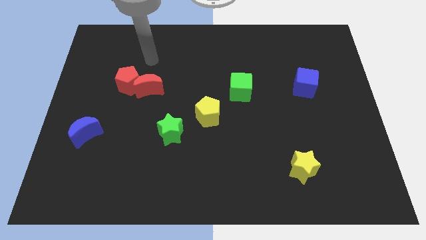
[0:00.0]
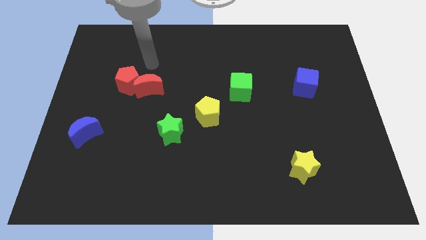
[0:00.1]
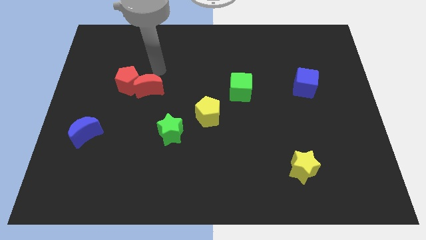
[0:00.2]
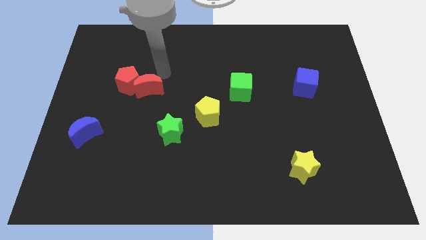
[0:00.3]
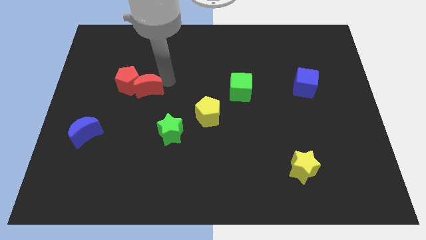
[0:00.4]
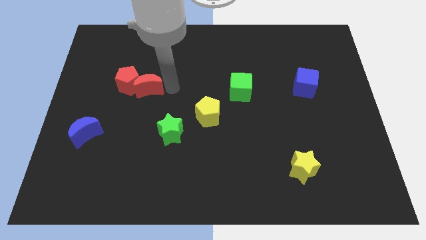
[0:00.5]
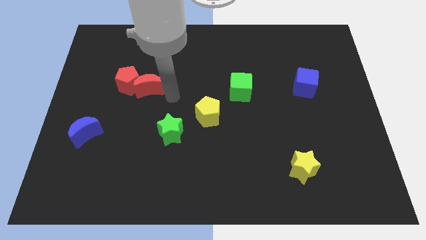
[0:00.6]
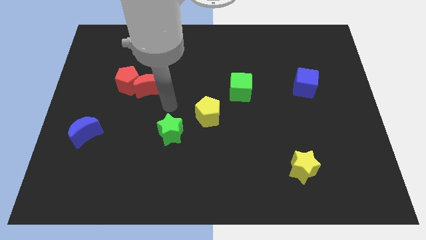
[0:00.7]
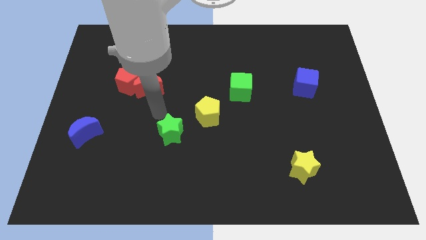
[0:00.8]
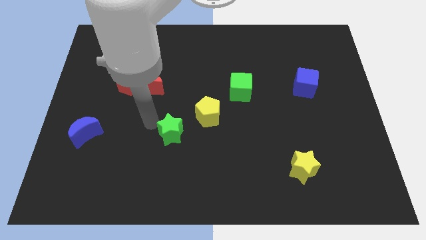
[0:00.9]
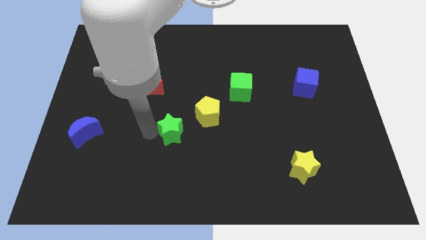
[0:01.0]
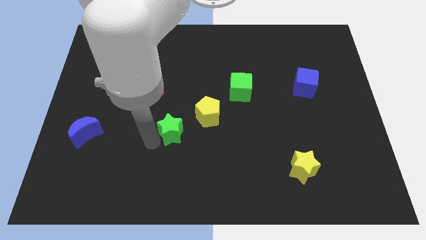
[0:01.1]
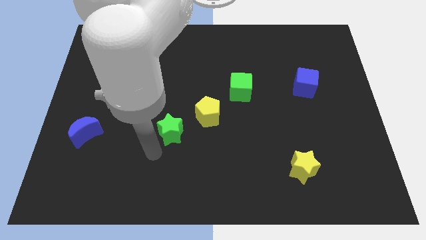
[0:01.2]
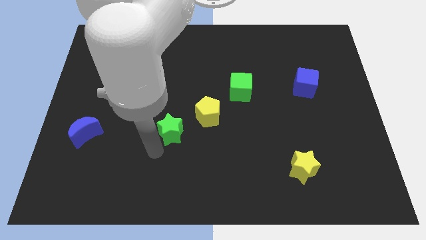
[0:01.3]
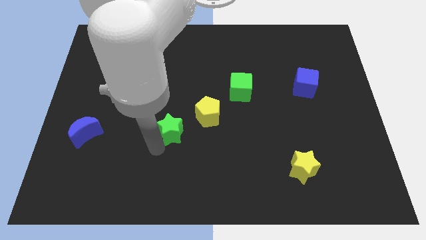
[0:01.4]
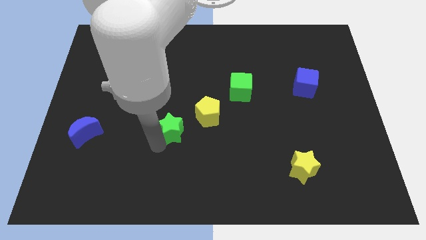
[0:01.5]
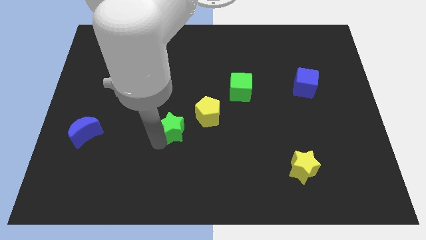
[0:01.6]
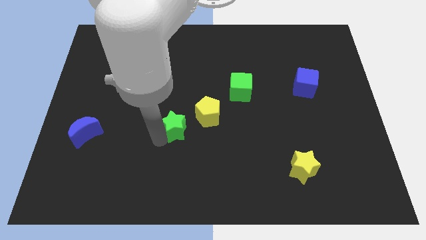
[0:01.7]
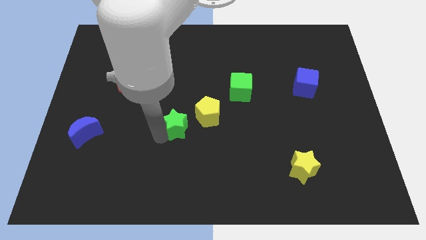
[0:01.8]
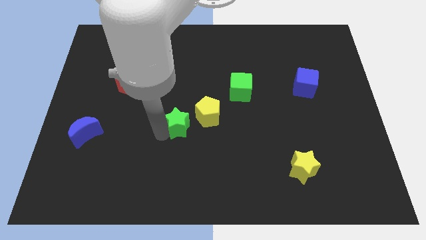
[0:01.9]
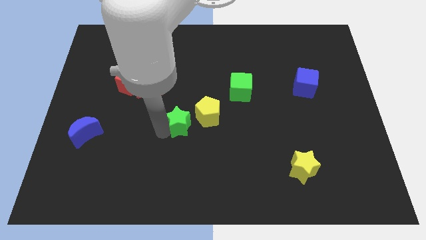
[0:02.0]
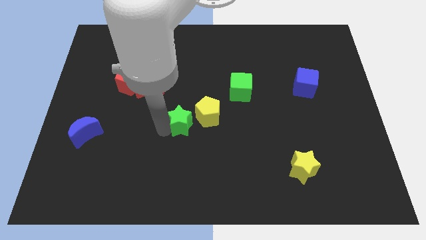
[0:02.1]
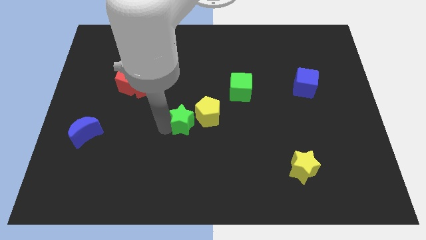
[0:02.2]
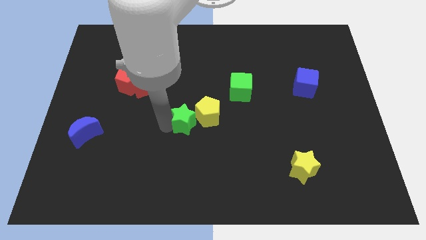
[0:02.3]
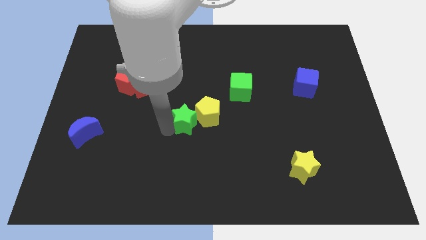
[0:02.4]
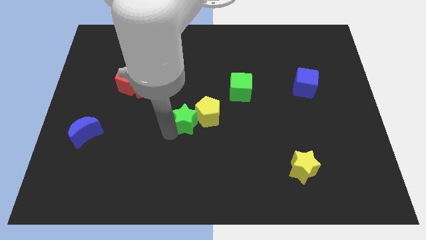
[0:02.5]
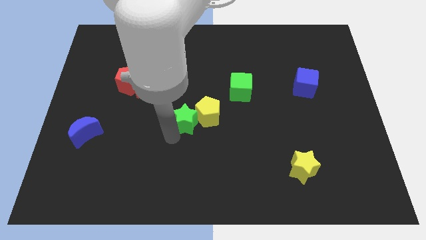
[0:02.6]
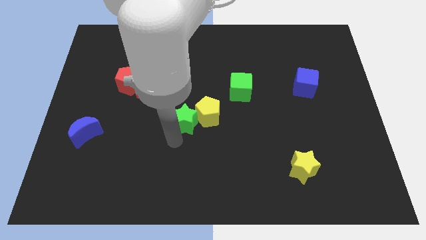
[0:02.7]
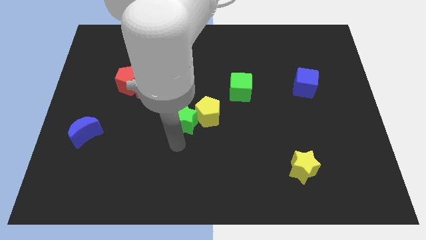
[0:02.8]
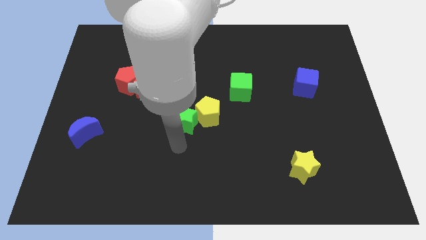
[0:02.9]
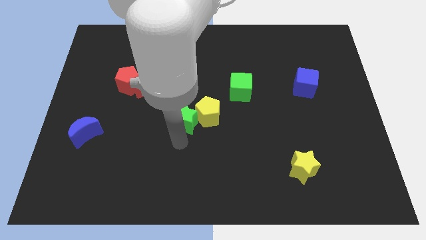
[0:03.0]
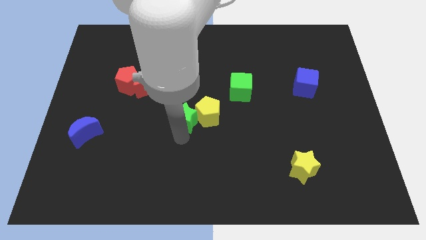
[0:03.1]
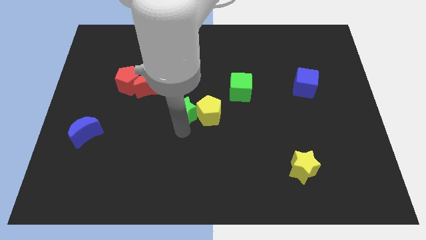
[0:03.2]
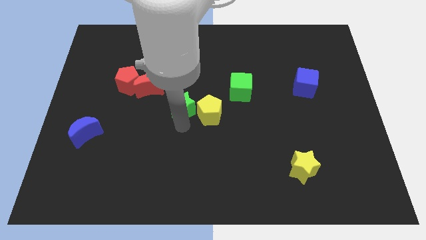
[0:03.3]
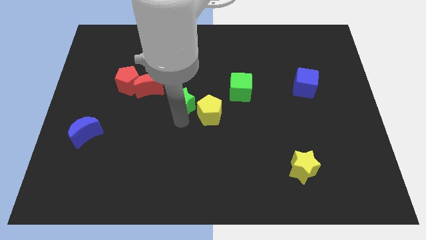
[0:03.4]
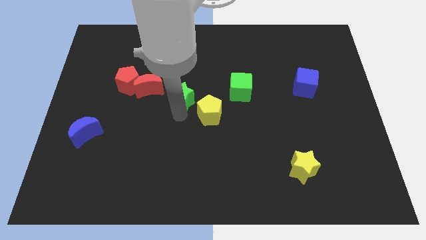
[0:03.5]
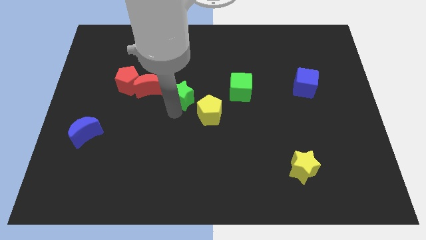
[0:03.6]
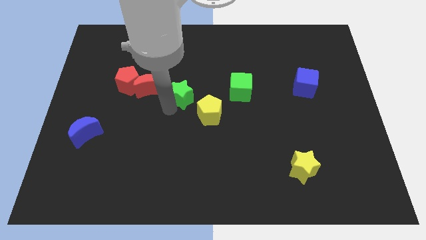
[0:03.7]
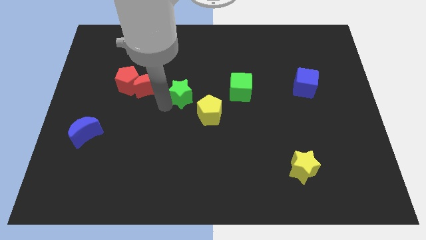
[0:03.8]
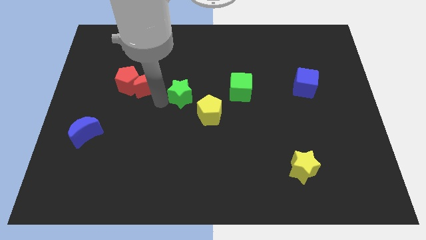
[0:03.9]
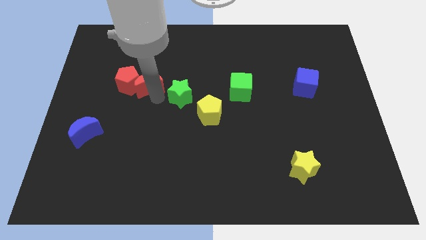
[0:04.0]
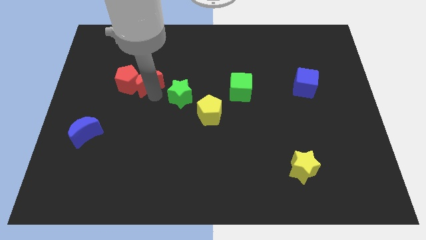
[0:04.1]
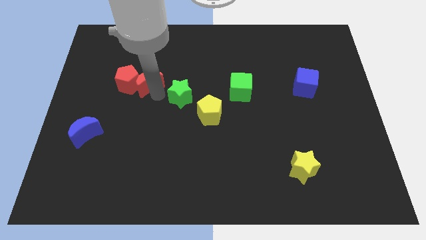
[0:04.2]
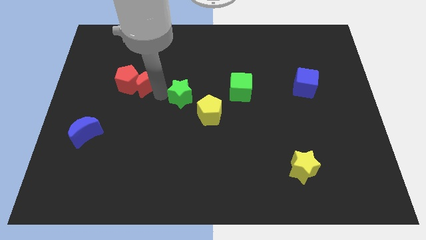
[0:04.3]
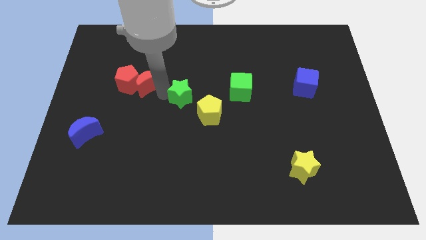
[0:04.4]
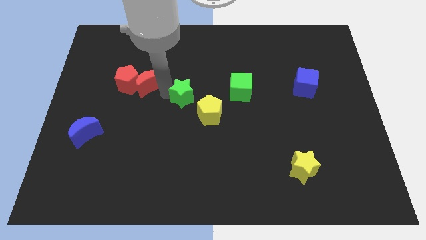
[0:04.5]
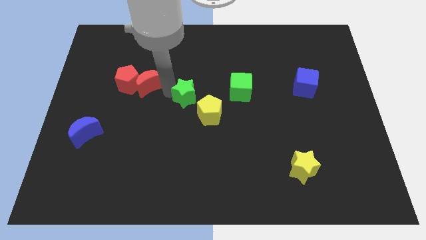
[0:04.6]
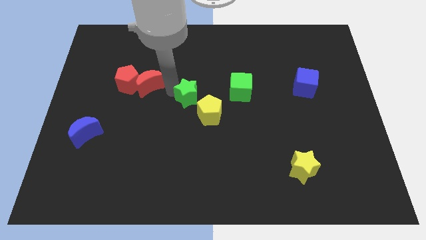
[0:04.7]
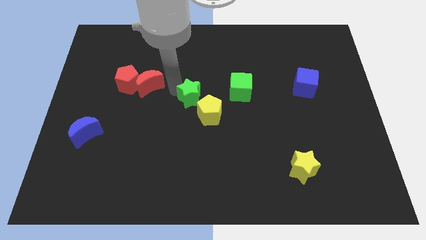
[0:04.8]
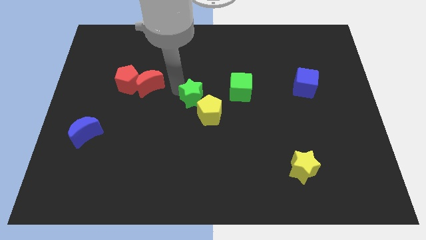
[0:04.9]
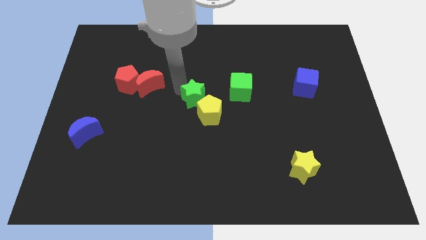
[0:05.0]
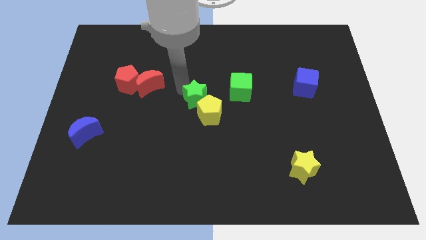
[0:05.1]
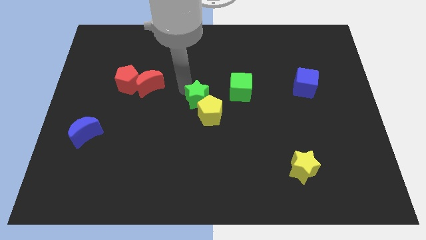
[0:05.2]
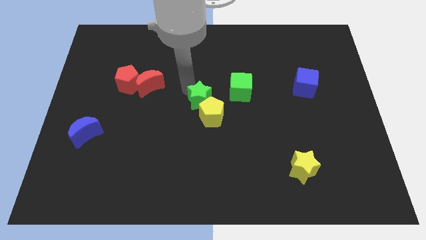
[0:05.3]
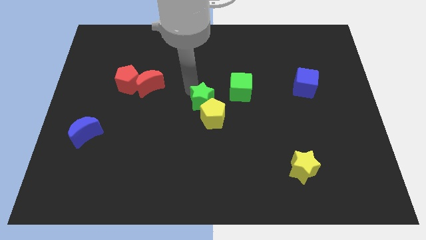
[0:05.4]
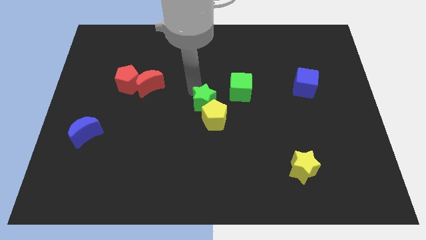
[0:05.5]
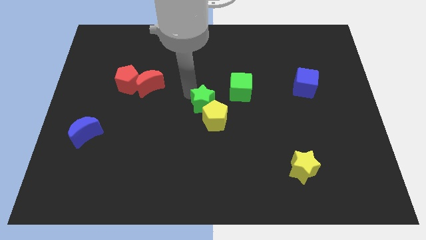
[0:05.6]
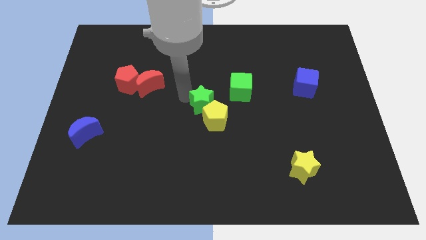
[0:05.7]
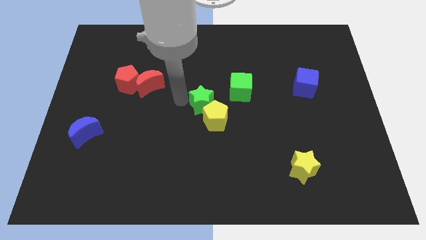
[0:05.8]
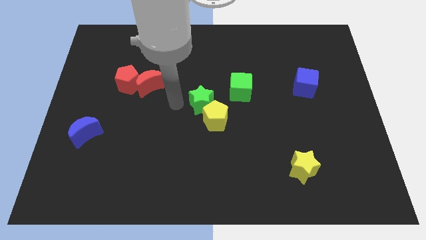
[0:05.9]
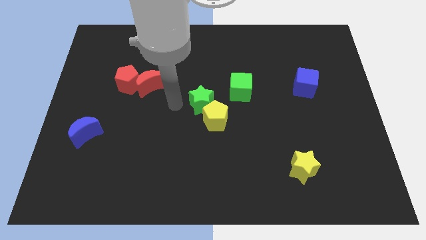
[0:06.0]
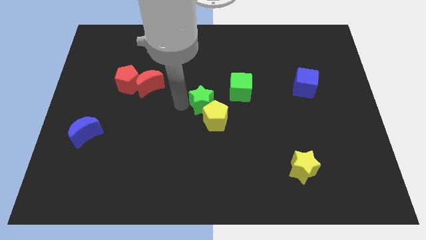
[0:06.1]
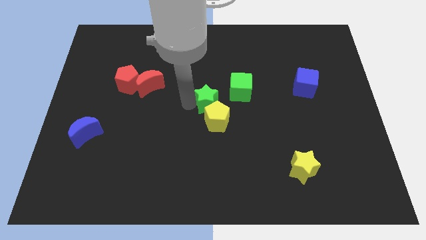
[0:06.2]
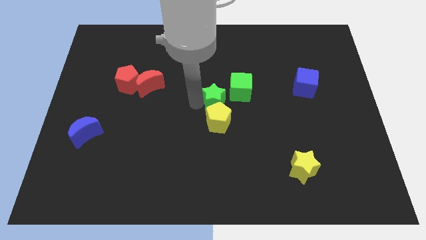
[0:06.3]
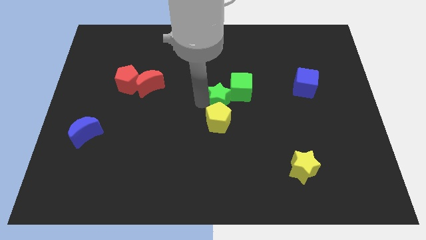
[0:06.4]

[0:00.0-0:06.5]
slide the green star next to the green cube

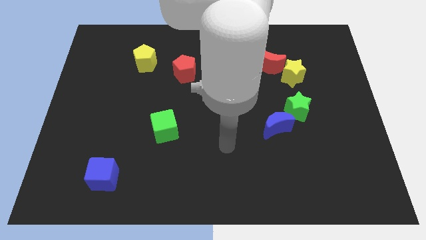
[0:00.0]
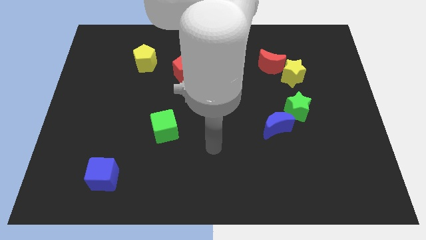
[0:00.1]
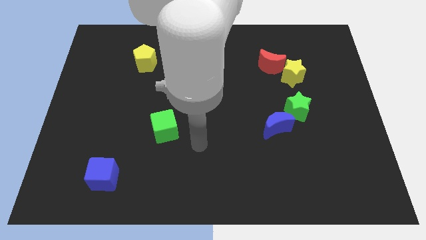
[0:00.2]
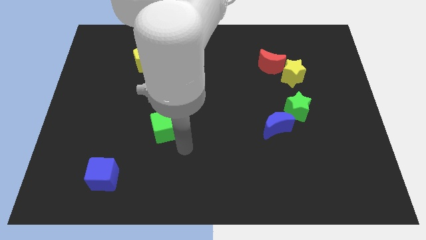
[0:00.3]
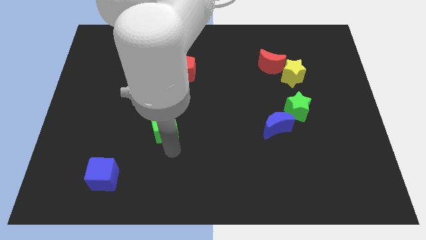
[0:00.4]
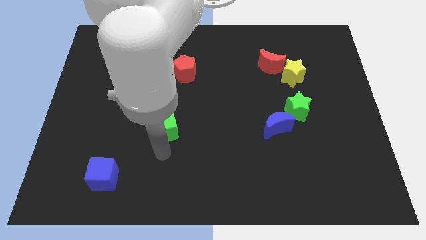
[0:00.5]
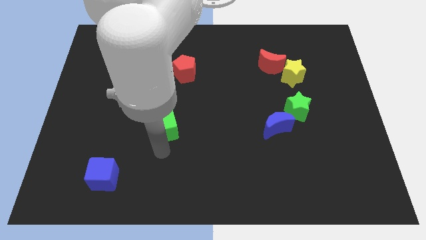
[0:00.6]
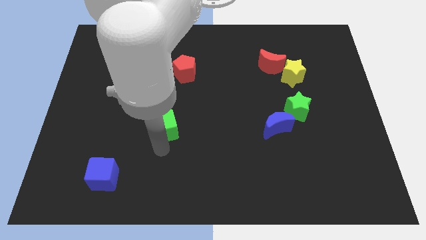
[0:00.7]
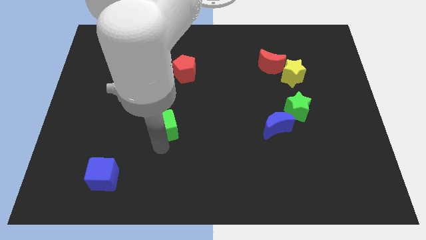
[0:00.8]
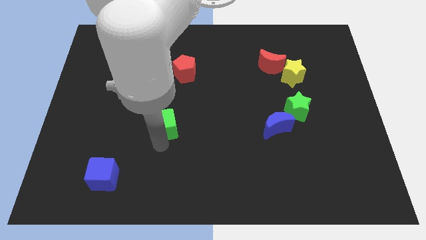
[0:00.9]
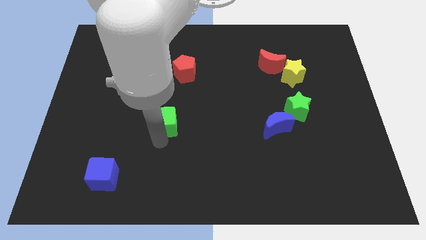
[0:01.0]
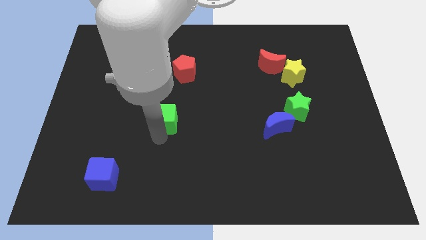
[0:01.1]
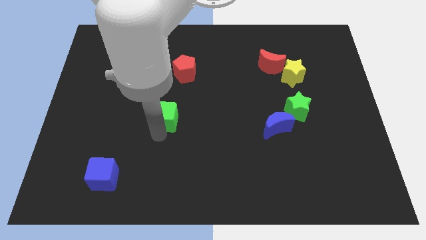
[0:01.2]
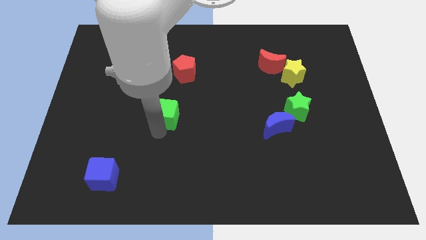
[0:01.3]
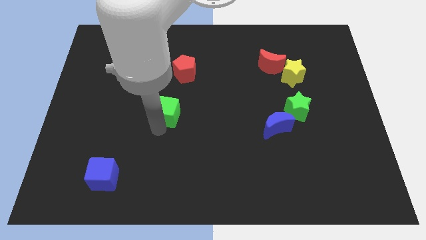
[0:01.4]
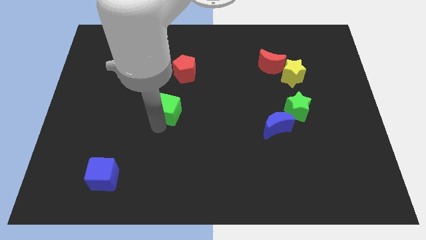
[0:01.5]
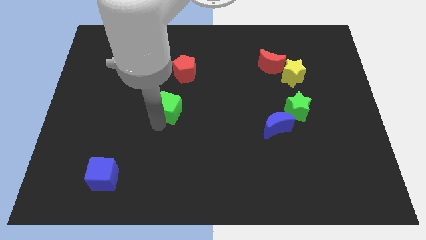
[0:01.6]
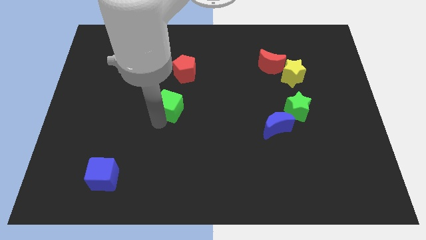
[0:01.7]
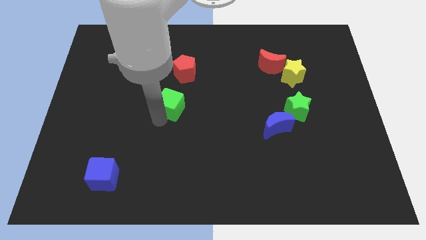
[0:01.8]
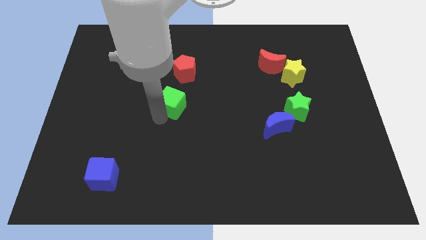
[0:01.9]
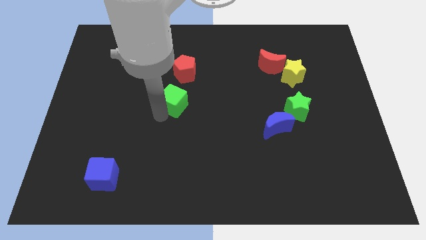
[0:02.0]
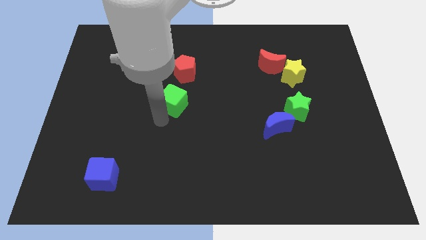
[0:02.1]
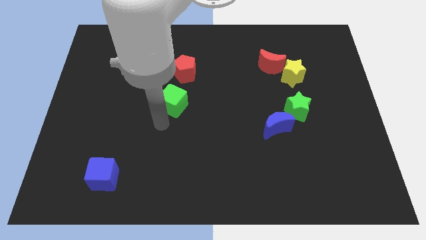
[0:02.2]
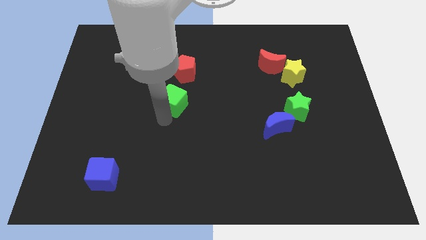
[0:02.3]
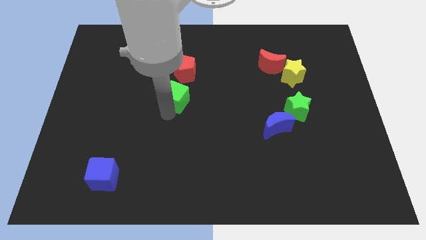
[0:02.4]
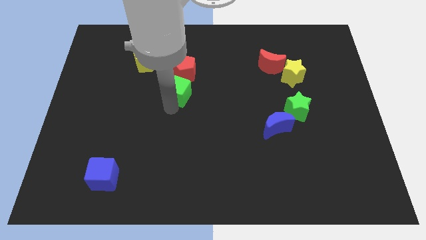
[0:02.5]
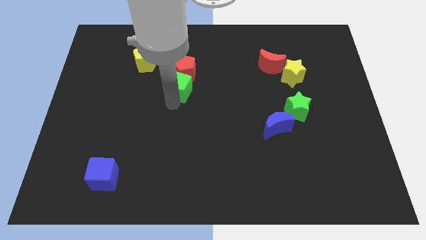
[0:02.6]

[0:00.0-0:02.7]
move the green cube to the red pentagon
